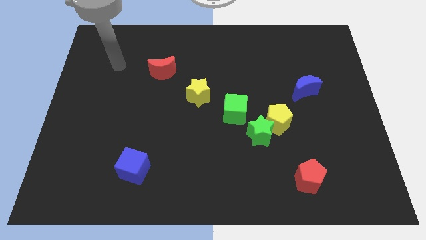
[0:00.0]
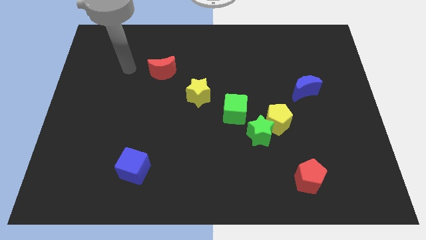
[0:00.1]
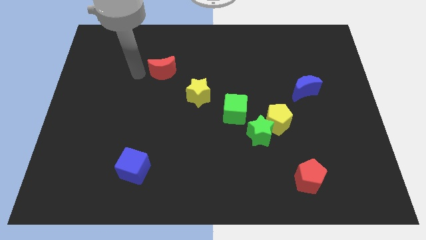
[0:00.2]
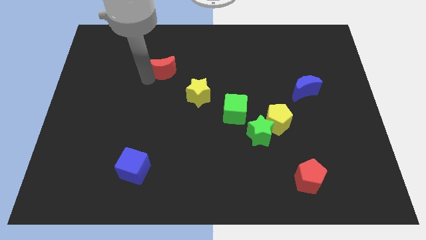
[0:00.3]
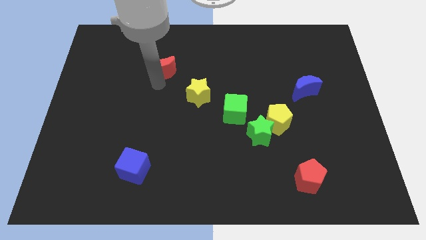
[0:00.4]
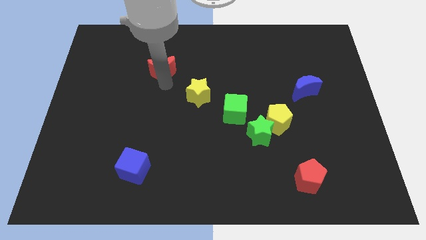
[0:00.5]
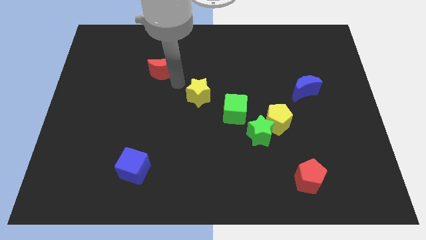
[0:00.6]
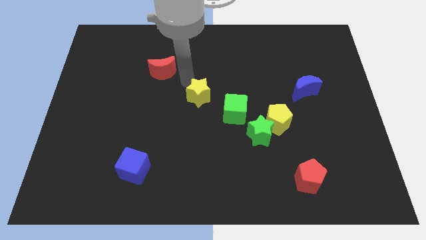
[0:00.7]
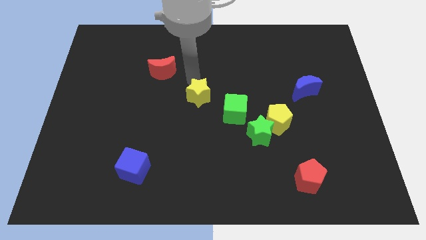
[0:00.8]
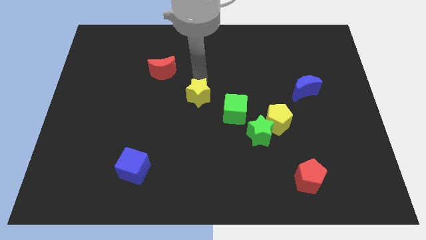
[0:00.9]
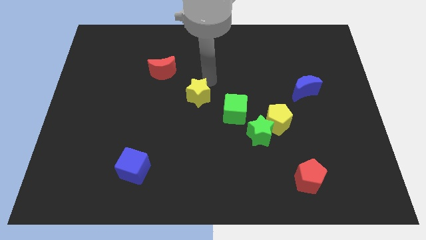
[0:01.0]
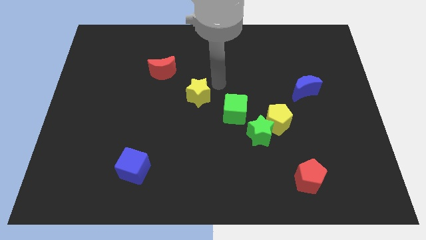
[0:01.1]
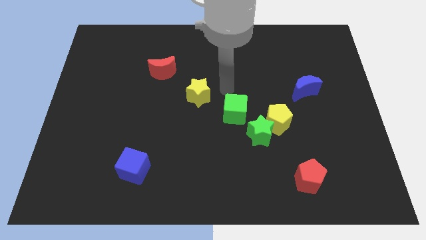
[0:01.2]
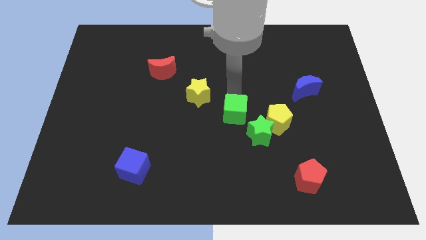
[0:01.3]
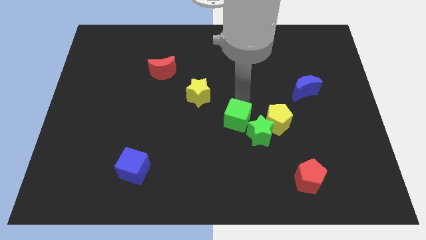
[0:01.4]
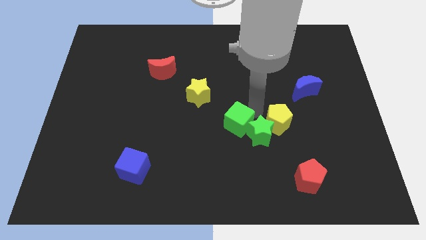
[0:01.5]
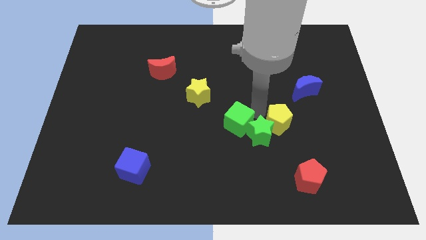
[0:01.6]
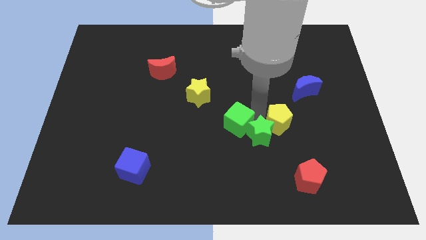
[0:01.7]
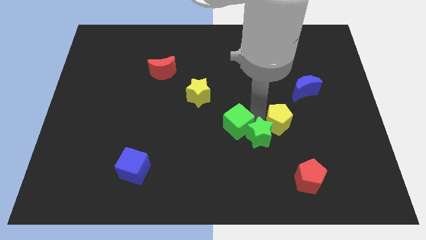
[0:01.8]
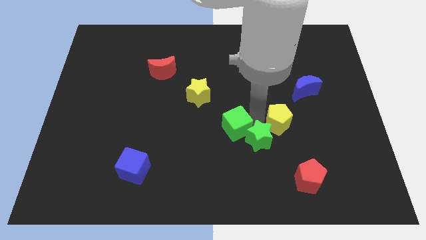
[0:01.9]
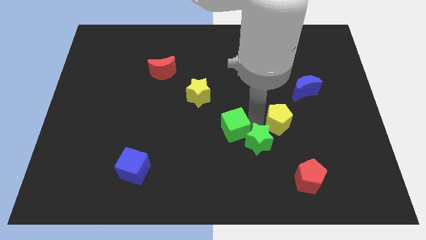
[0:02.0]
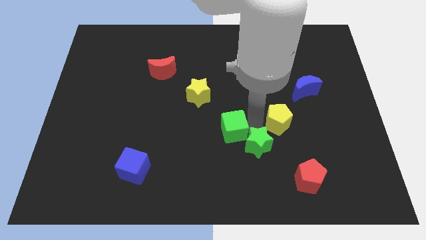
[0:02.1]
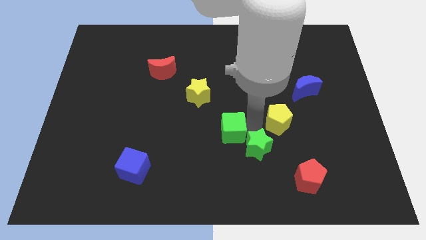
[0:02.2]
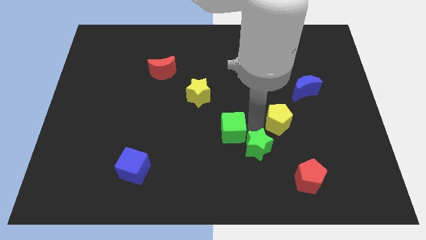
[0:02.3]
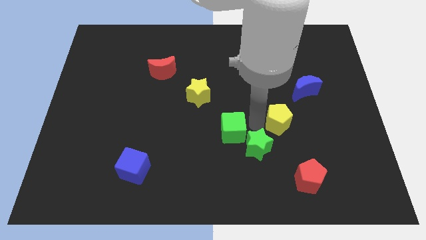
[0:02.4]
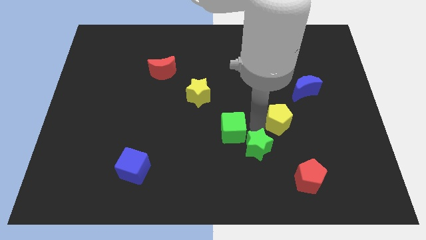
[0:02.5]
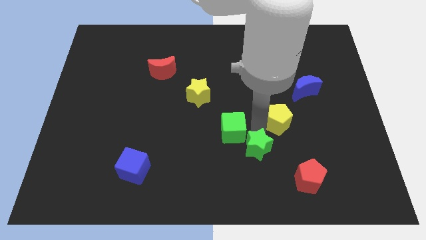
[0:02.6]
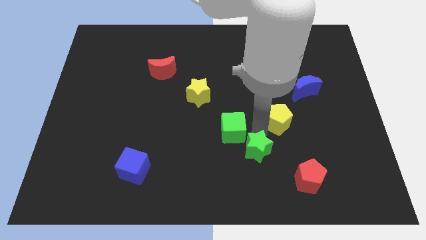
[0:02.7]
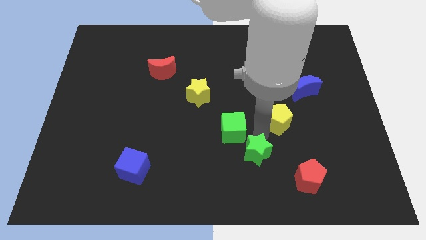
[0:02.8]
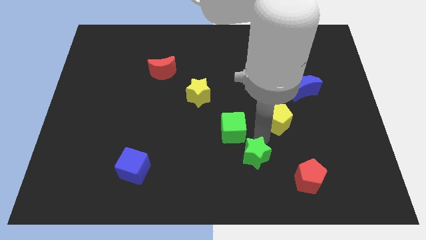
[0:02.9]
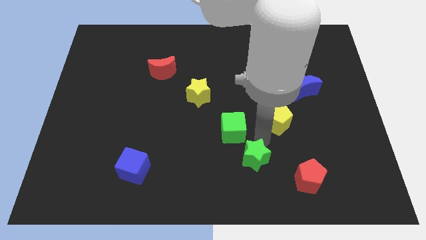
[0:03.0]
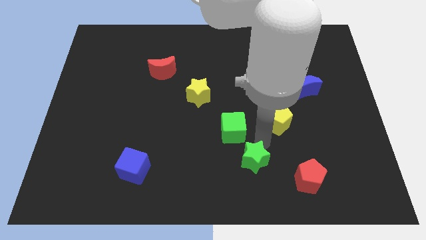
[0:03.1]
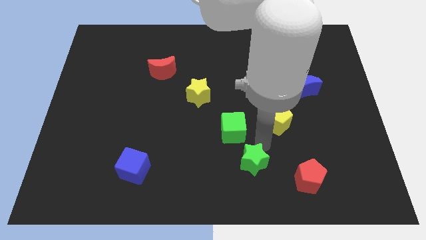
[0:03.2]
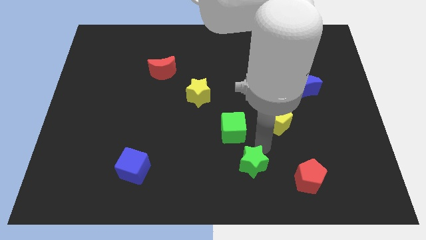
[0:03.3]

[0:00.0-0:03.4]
separate the green star from the yellow pentagon and green cube

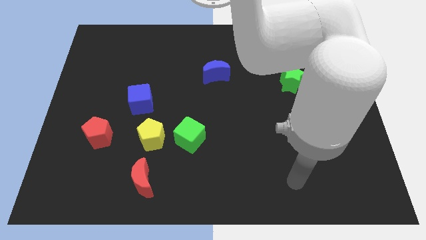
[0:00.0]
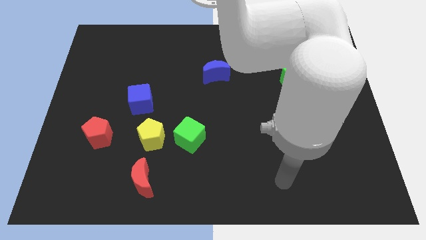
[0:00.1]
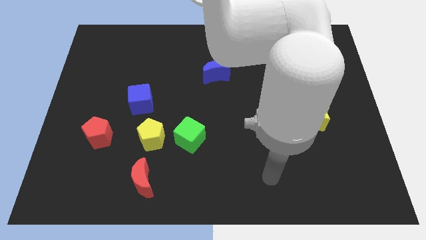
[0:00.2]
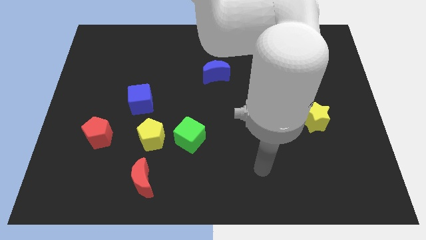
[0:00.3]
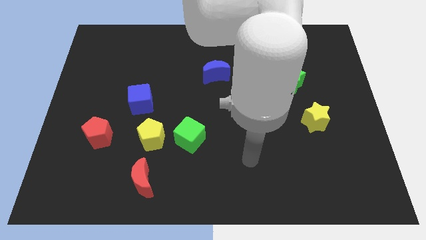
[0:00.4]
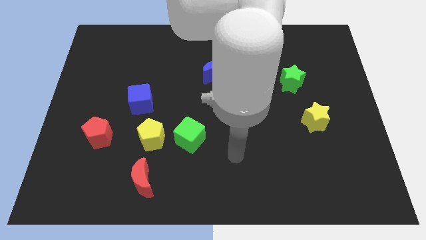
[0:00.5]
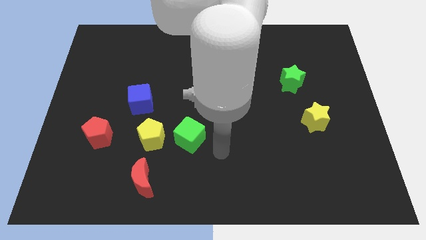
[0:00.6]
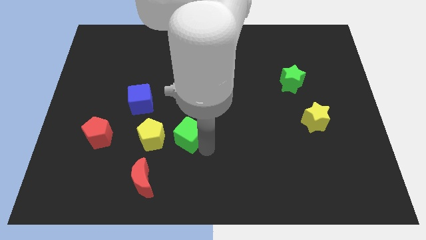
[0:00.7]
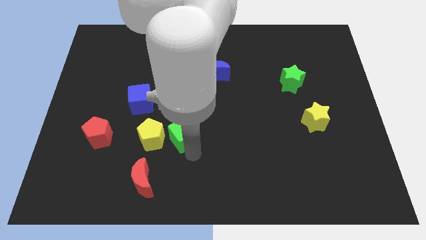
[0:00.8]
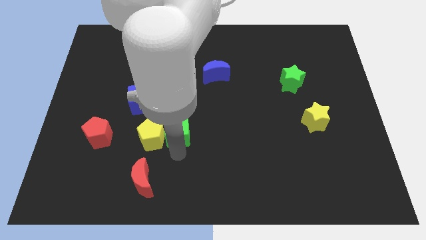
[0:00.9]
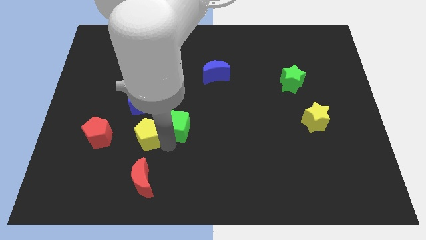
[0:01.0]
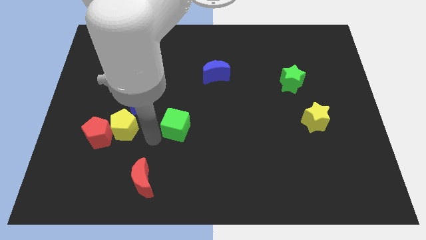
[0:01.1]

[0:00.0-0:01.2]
separate the green cube from the yellow pentagon

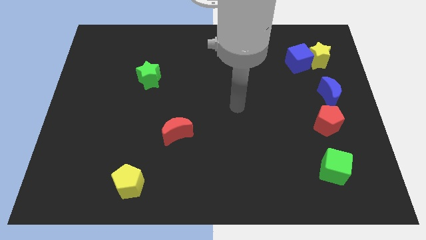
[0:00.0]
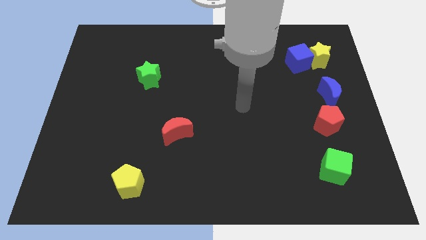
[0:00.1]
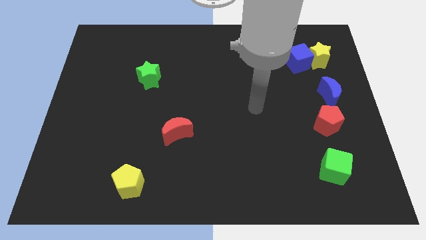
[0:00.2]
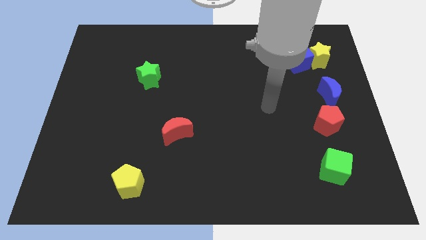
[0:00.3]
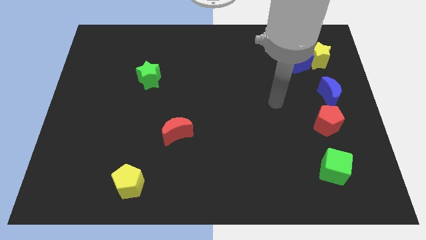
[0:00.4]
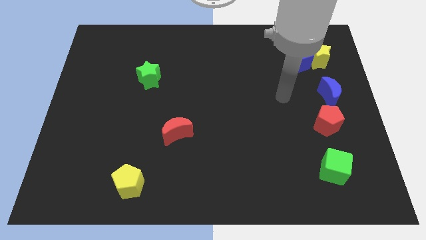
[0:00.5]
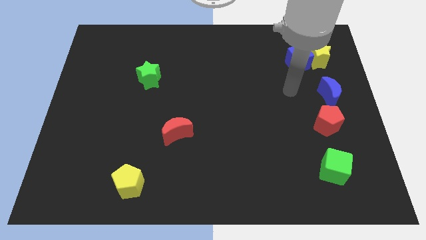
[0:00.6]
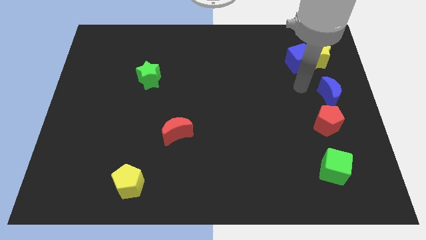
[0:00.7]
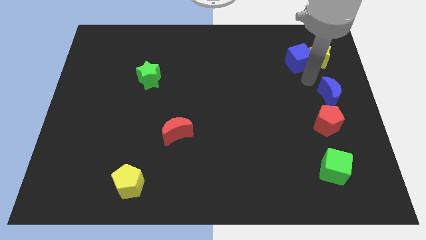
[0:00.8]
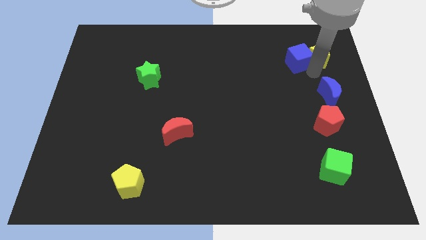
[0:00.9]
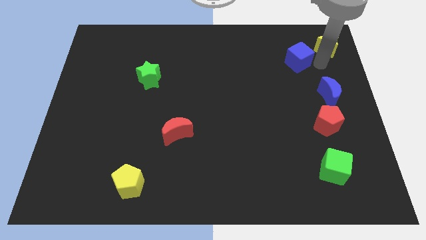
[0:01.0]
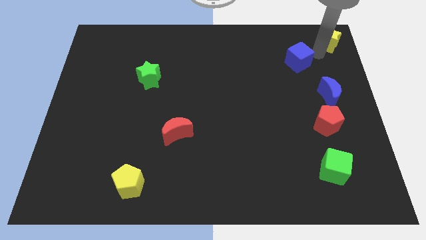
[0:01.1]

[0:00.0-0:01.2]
separate the blue cube from the yellow star

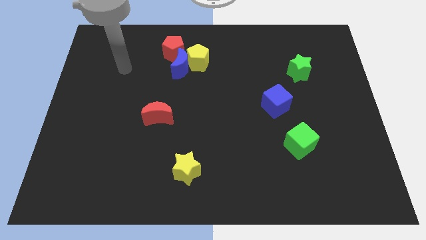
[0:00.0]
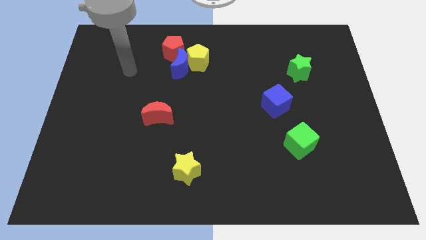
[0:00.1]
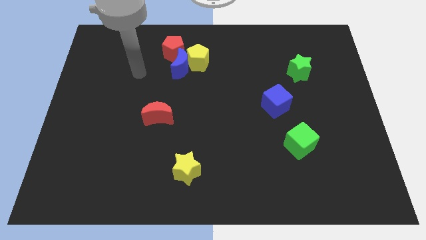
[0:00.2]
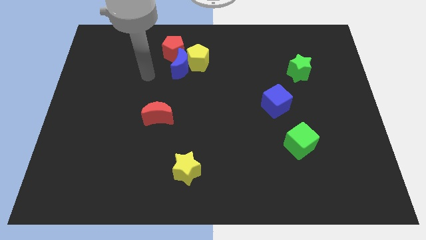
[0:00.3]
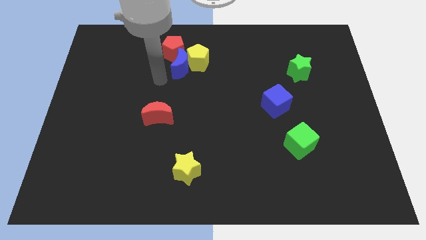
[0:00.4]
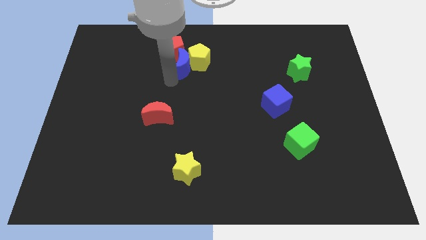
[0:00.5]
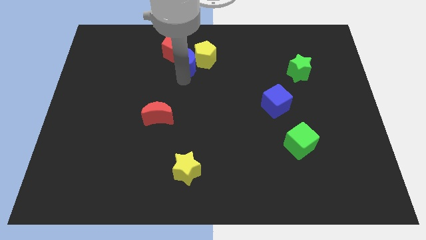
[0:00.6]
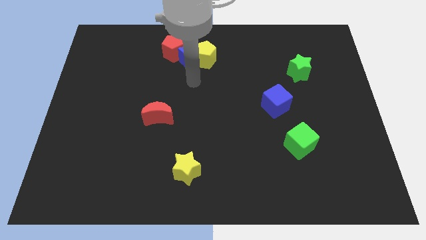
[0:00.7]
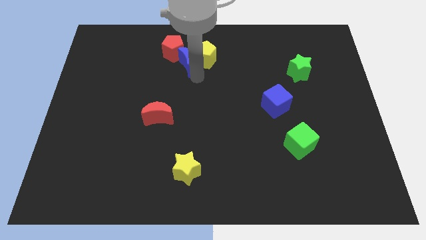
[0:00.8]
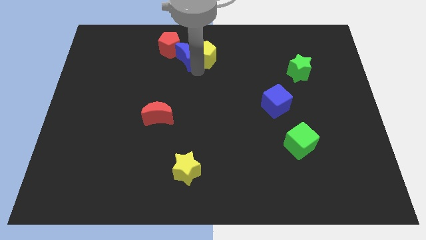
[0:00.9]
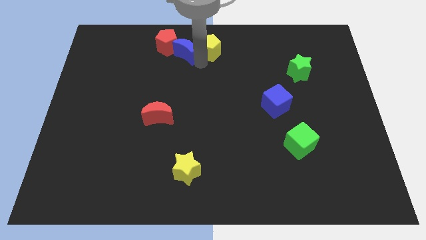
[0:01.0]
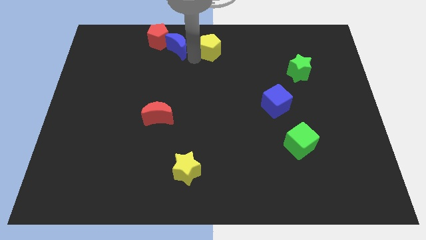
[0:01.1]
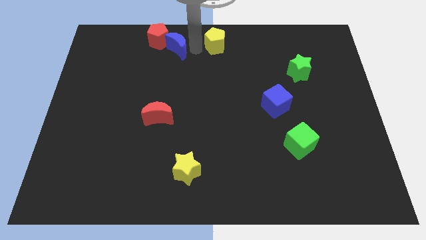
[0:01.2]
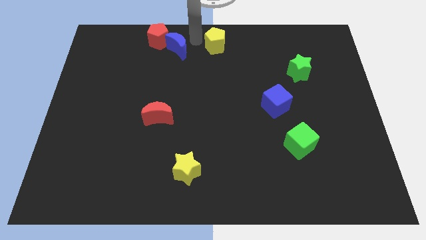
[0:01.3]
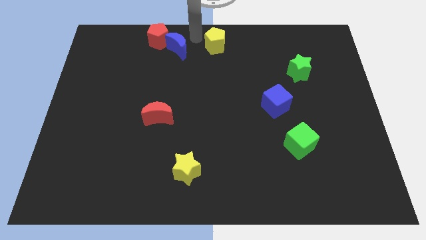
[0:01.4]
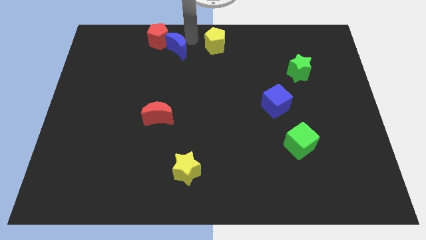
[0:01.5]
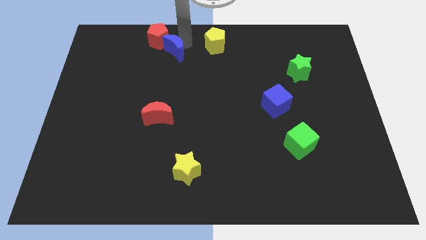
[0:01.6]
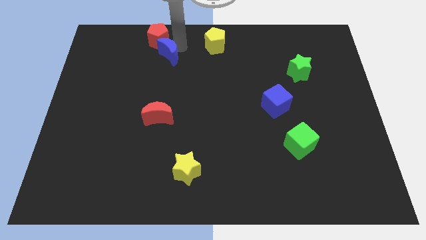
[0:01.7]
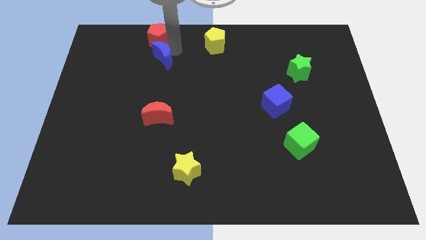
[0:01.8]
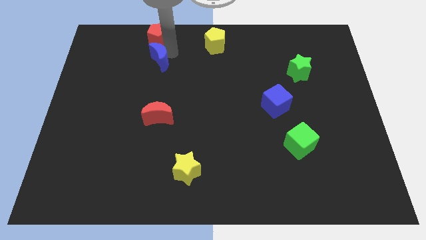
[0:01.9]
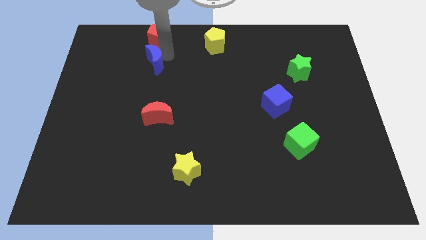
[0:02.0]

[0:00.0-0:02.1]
move the blue moon away from the yellow pentagon and red pentagon

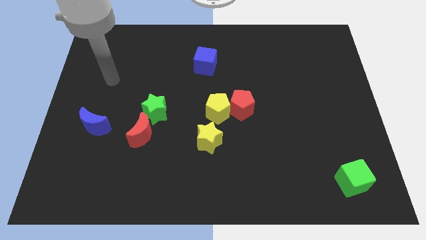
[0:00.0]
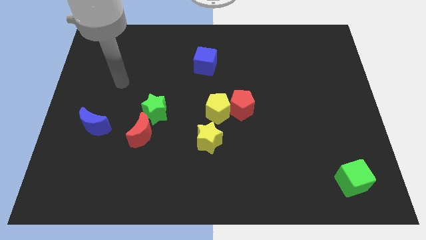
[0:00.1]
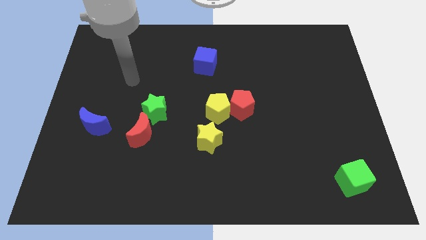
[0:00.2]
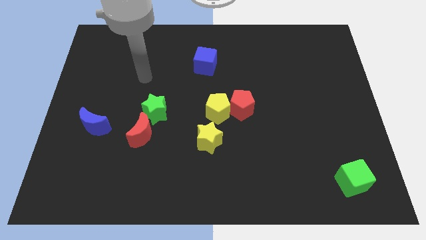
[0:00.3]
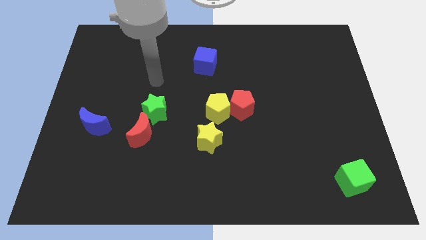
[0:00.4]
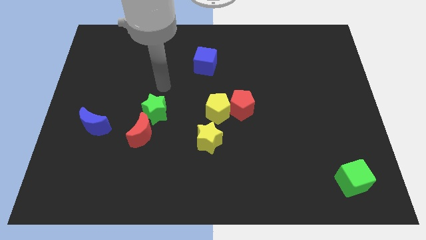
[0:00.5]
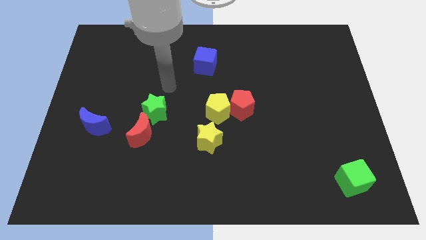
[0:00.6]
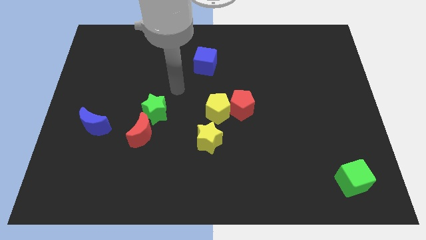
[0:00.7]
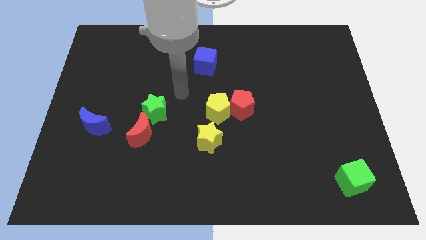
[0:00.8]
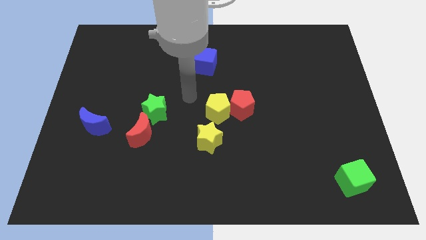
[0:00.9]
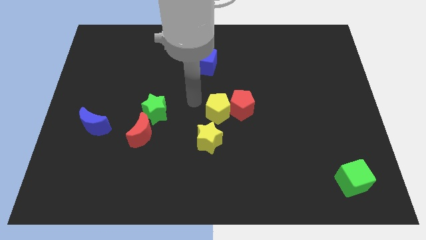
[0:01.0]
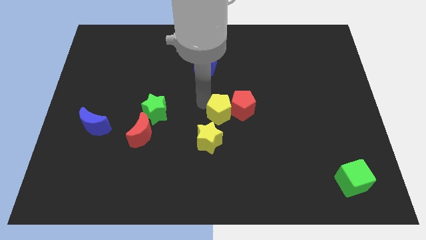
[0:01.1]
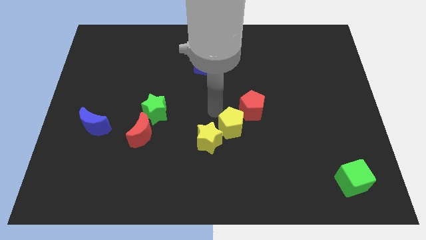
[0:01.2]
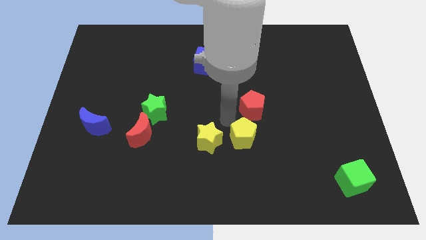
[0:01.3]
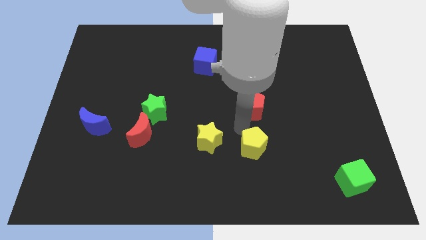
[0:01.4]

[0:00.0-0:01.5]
separate the red pentagon from the yellow pentagon
